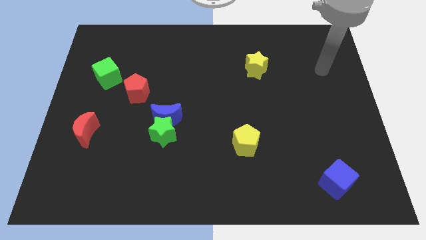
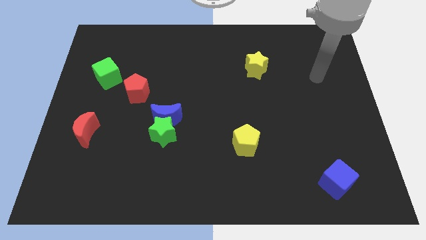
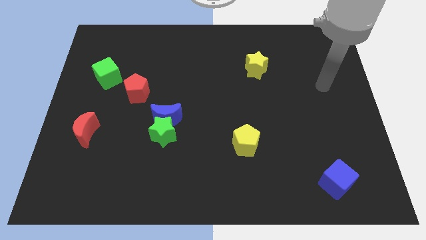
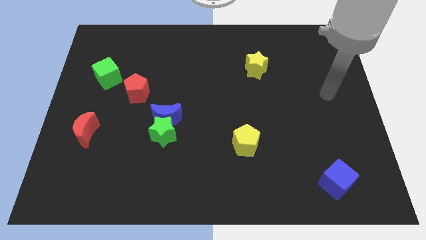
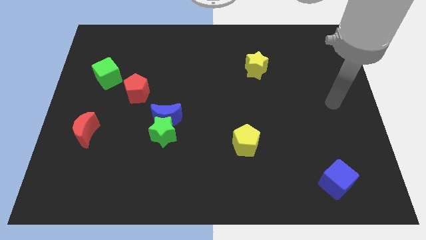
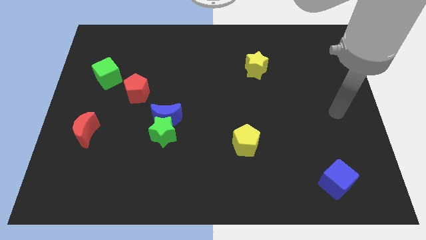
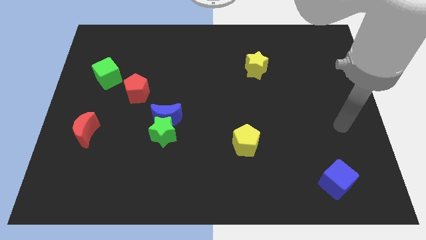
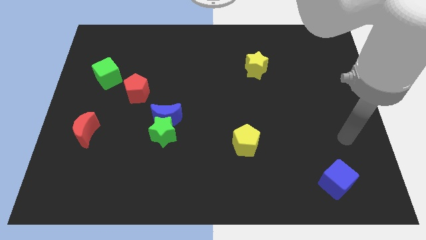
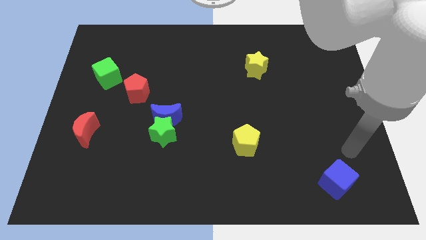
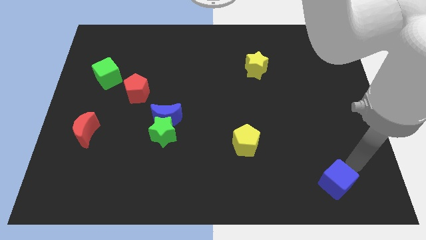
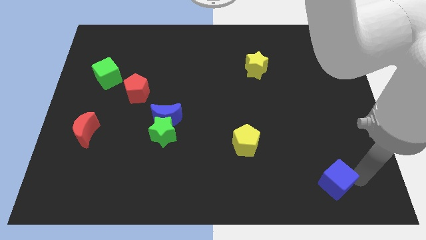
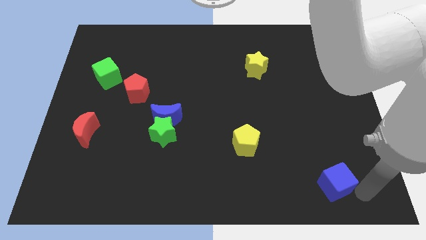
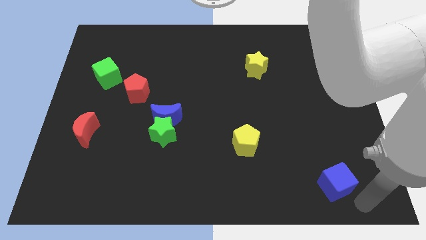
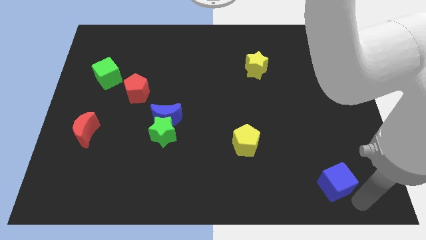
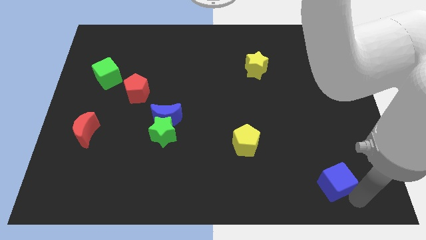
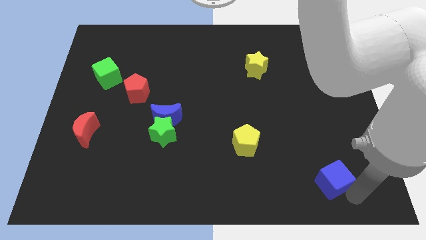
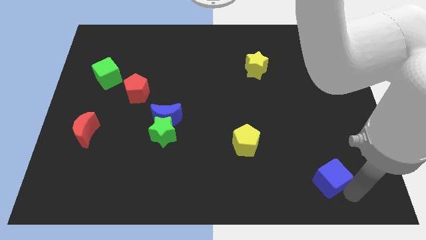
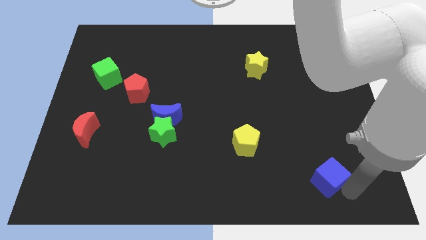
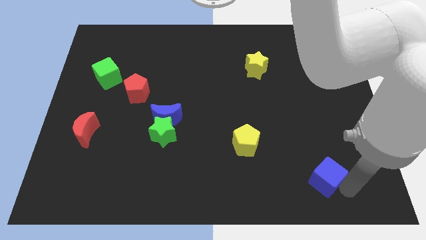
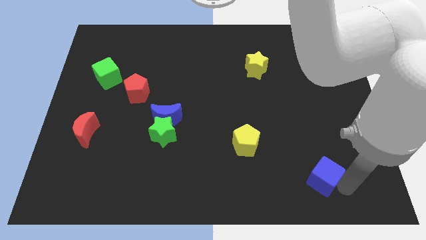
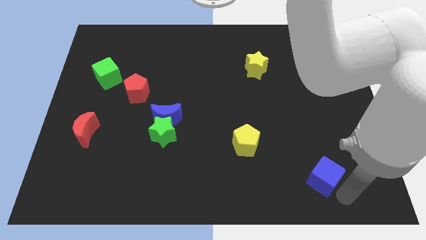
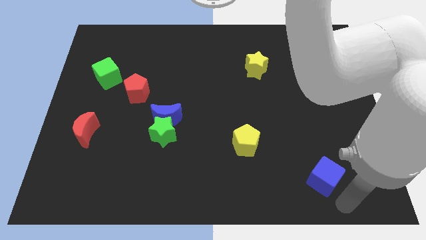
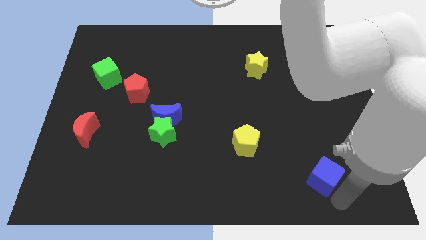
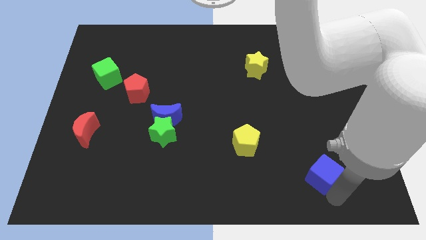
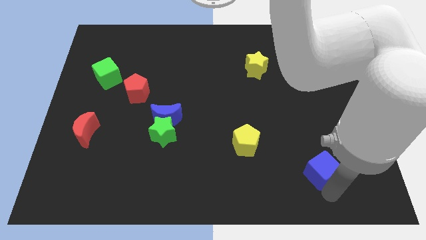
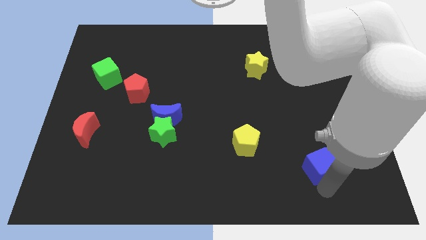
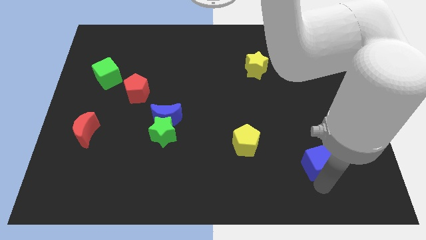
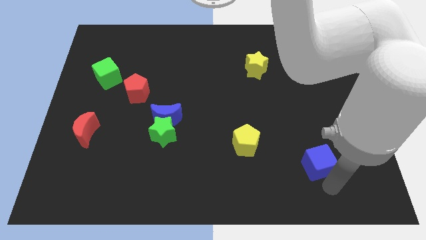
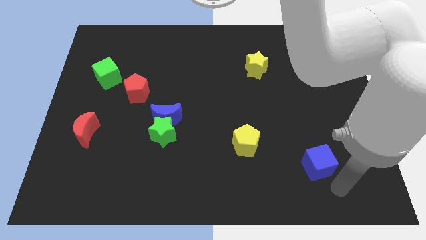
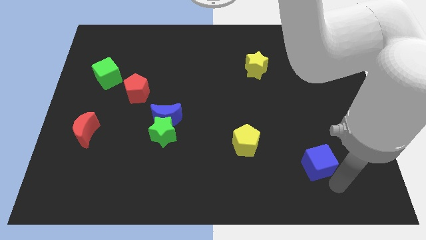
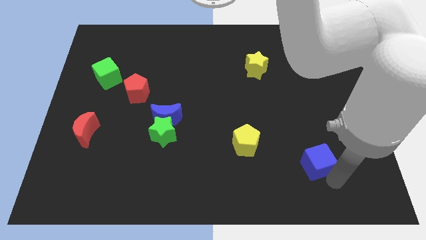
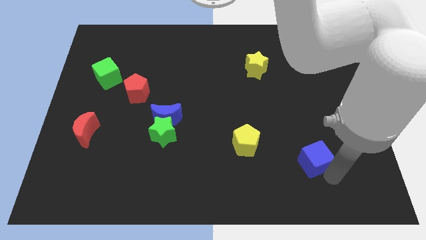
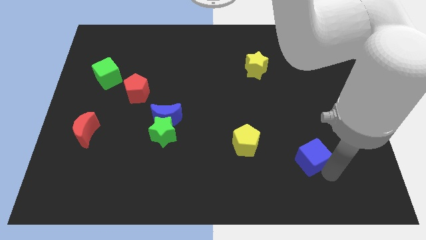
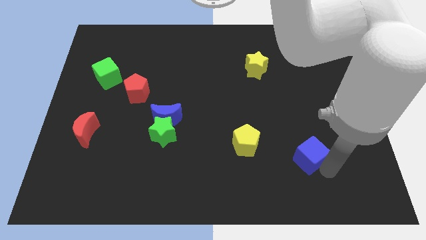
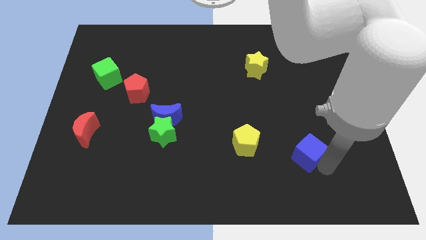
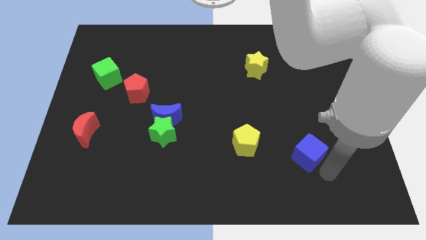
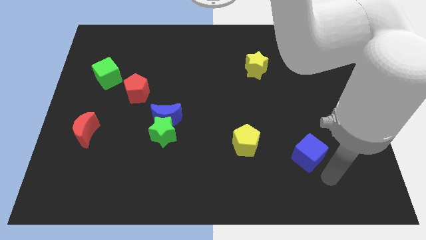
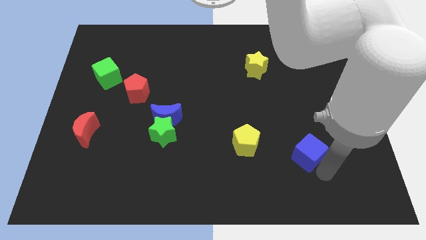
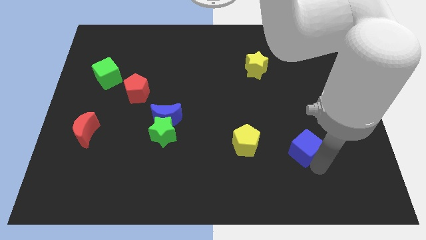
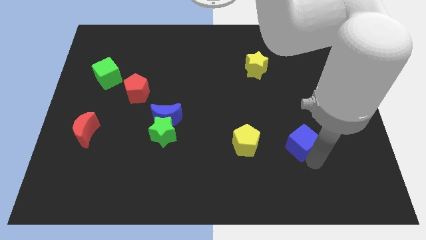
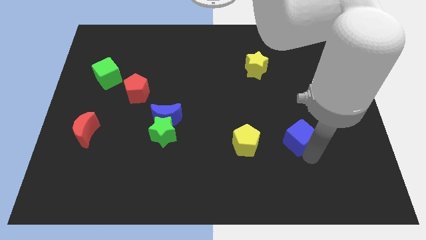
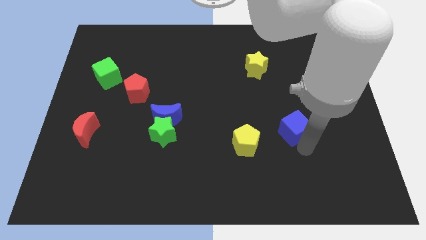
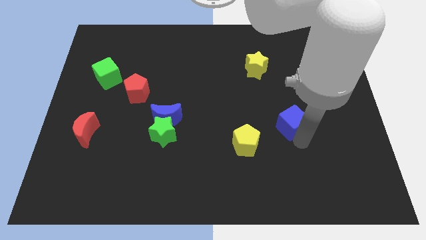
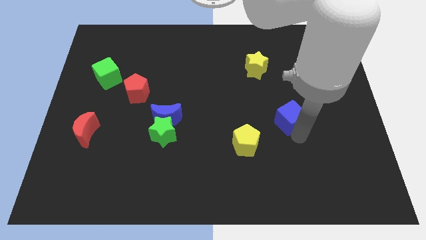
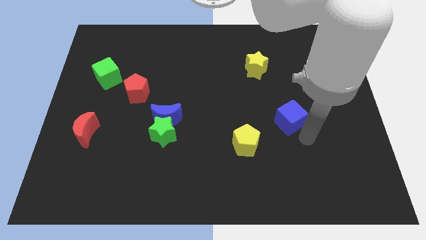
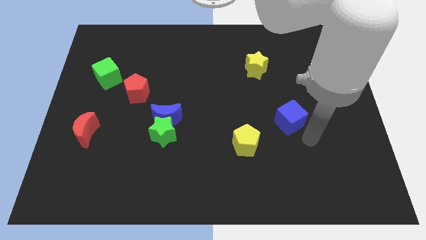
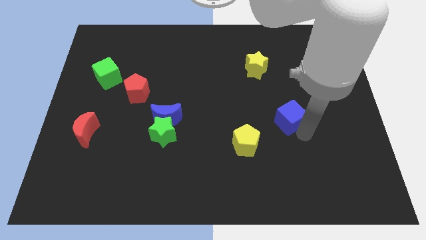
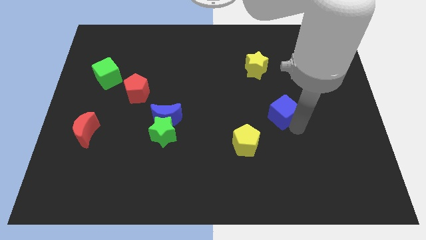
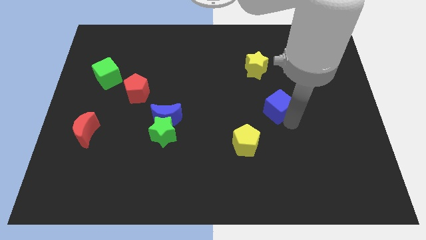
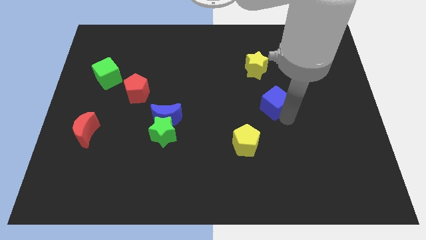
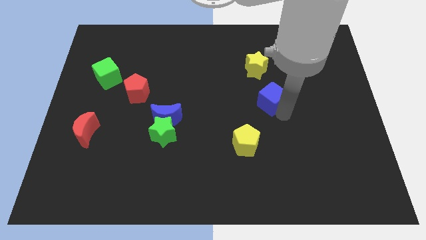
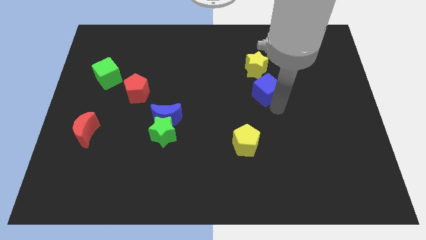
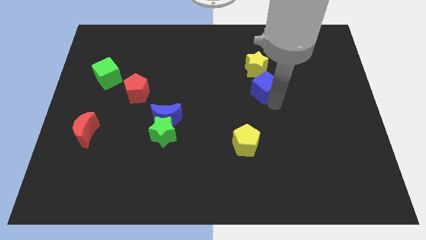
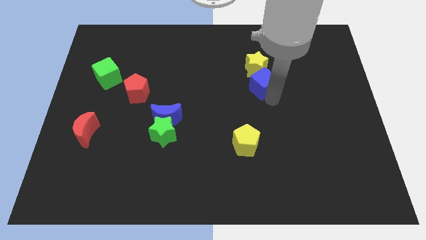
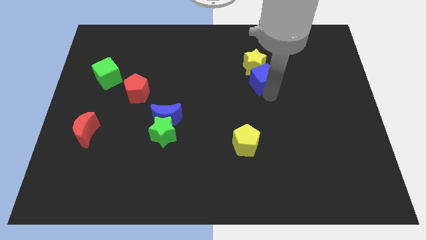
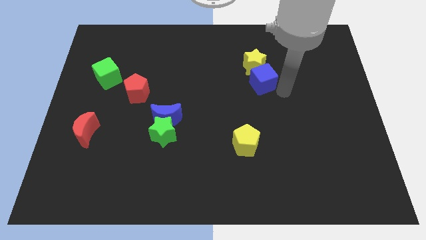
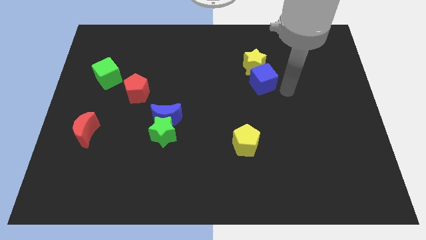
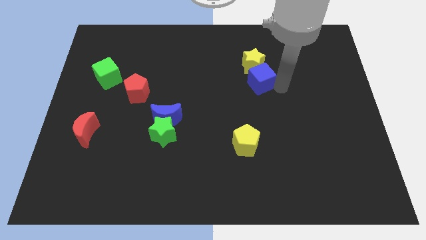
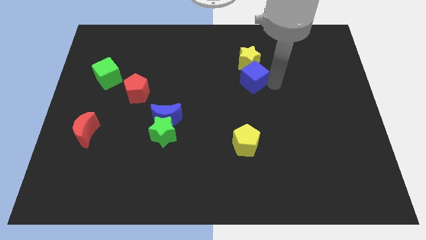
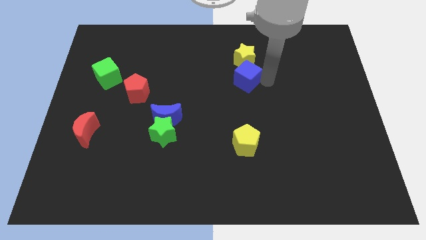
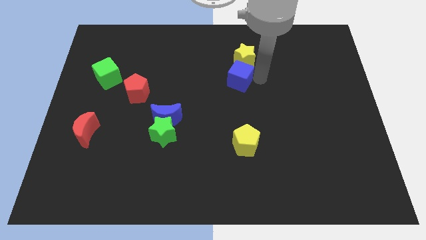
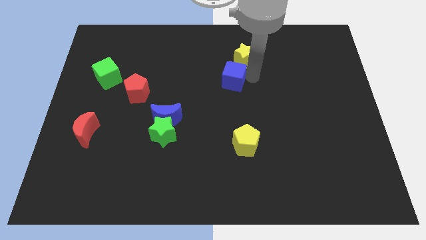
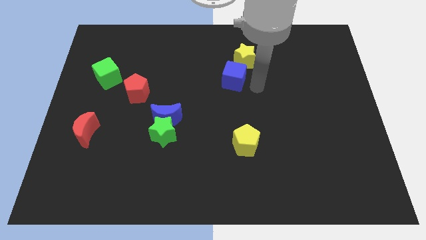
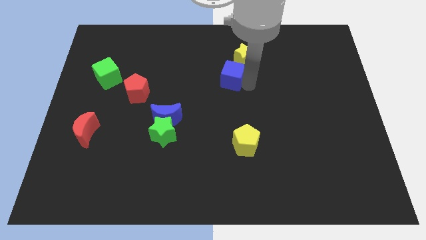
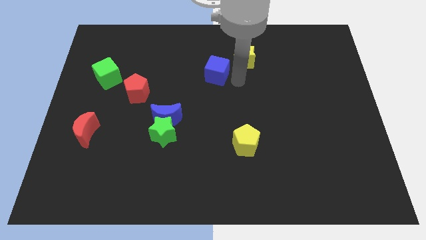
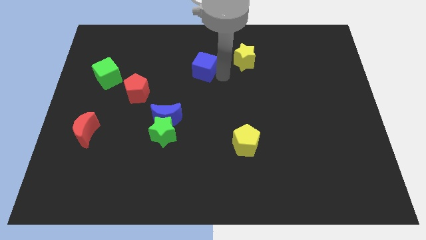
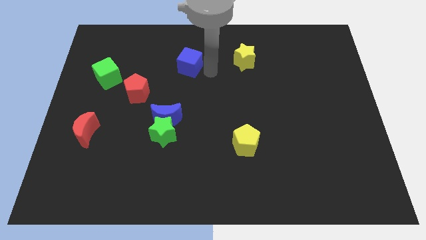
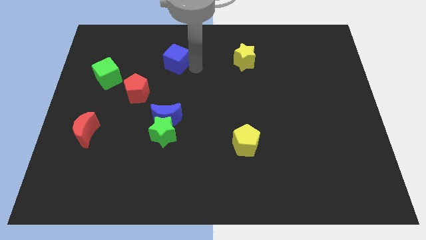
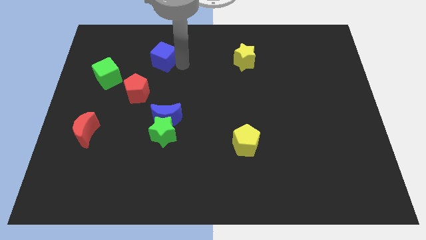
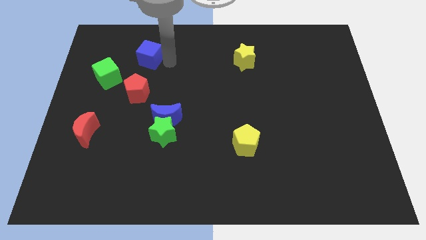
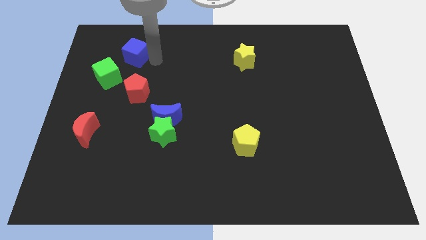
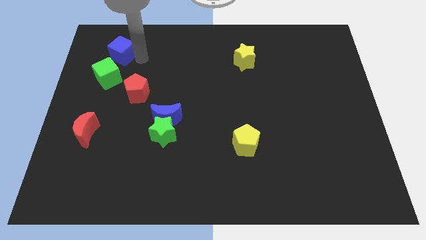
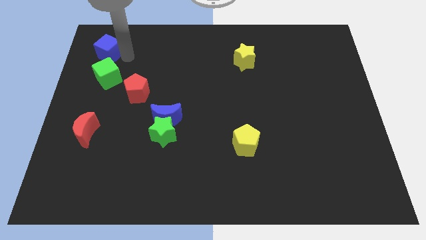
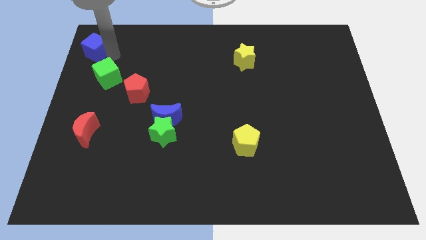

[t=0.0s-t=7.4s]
move the blue cube to the top left of the board
